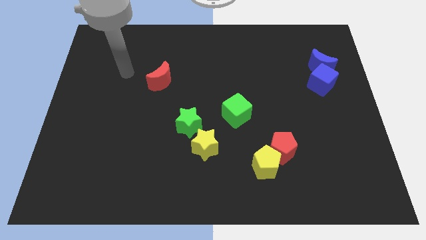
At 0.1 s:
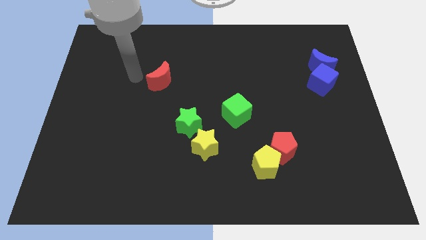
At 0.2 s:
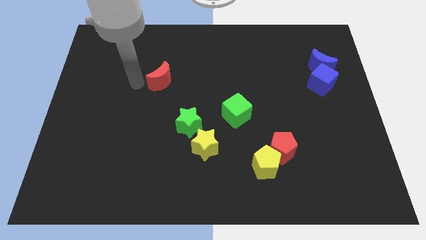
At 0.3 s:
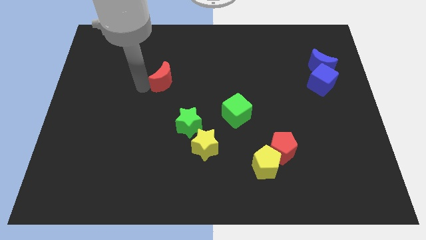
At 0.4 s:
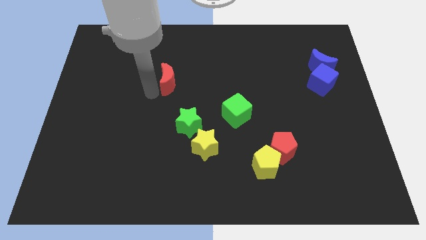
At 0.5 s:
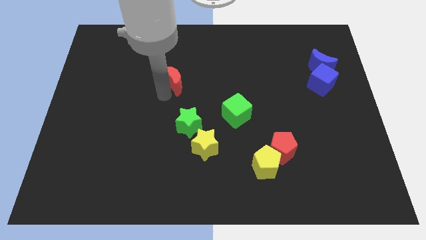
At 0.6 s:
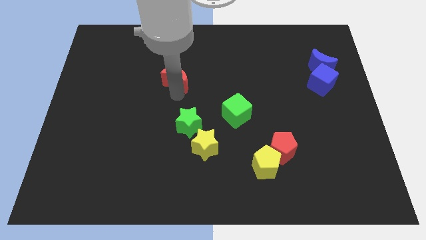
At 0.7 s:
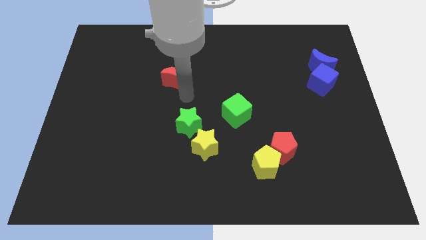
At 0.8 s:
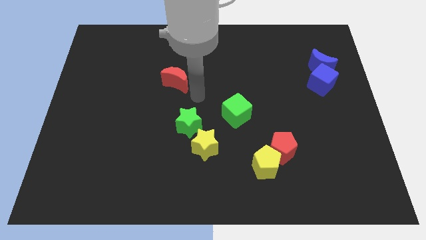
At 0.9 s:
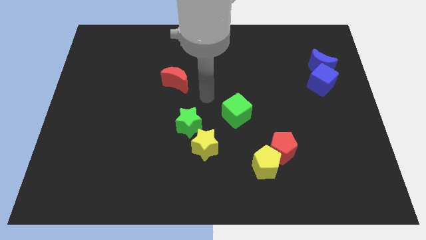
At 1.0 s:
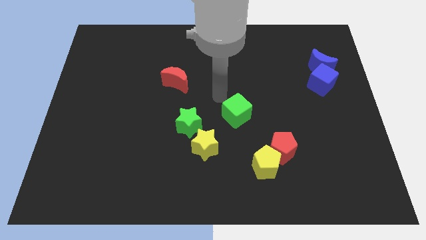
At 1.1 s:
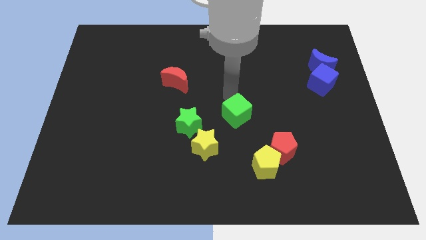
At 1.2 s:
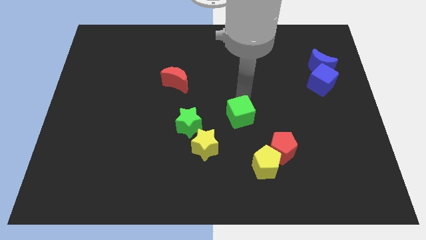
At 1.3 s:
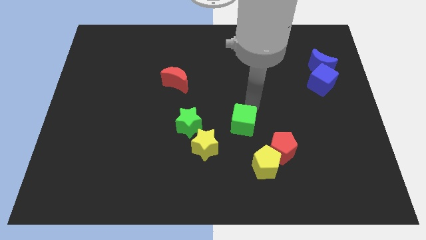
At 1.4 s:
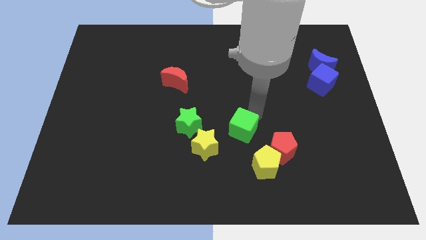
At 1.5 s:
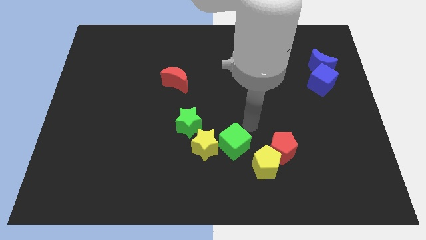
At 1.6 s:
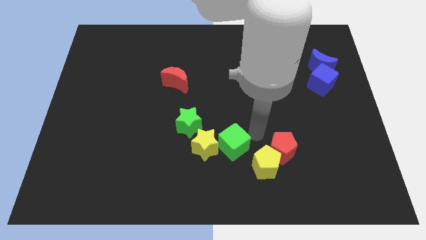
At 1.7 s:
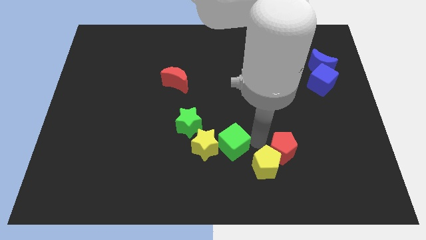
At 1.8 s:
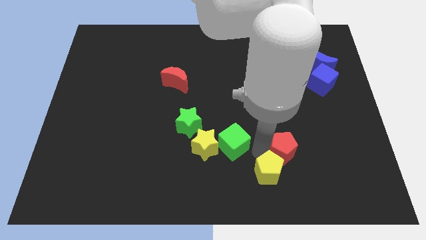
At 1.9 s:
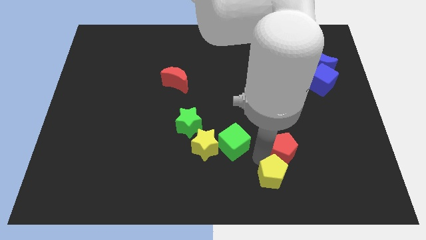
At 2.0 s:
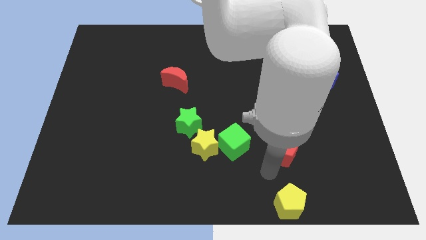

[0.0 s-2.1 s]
separate the red pentagon from the yellow pentagon

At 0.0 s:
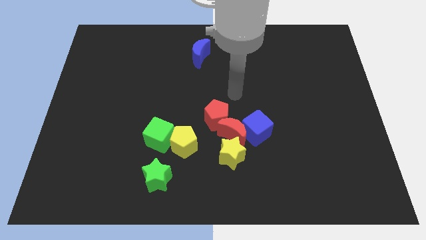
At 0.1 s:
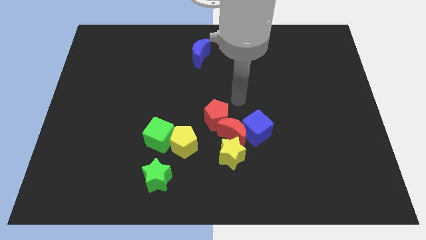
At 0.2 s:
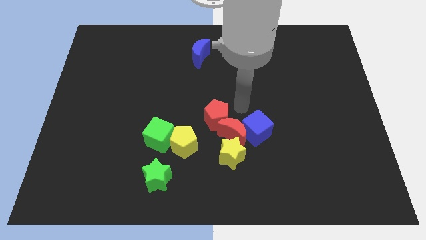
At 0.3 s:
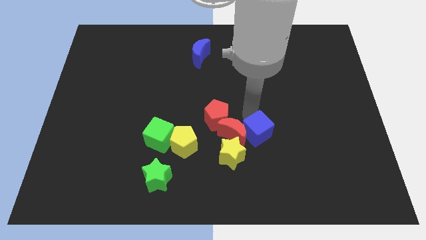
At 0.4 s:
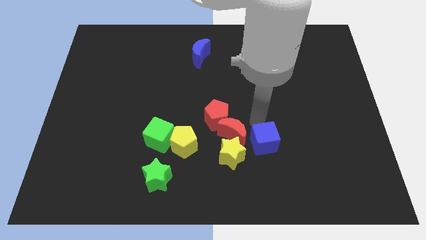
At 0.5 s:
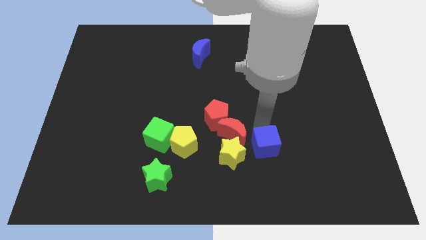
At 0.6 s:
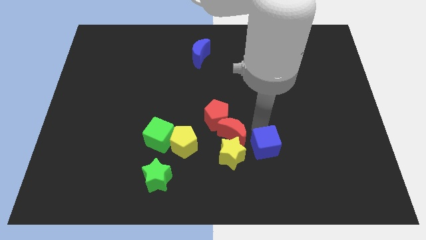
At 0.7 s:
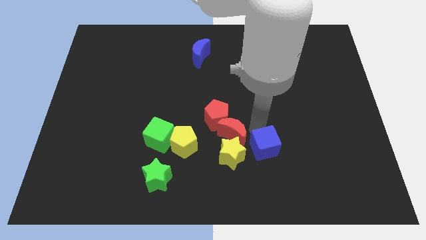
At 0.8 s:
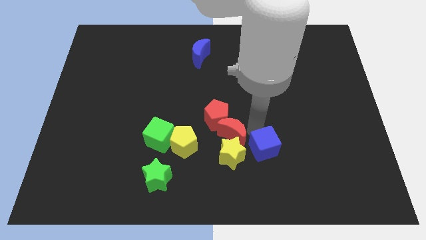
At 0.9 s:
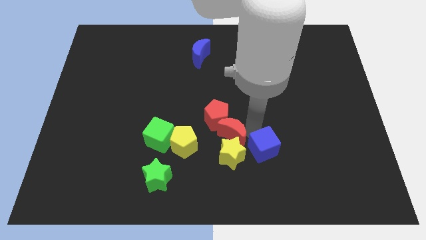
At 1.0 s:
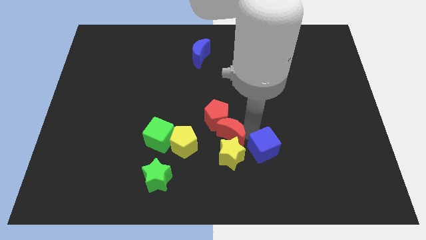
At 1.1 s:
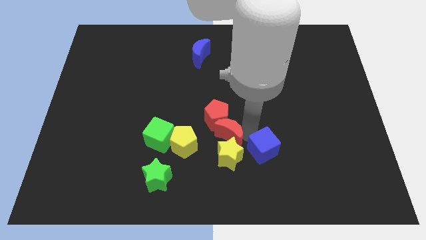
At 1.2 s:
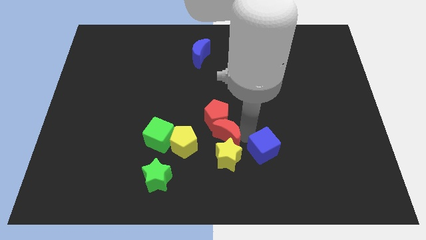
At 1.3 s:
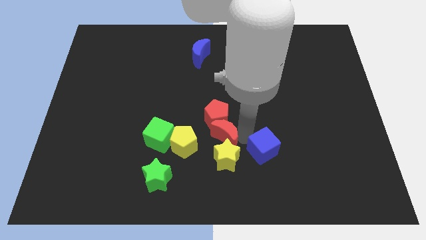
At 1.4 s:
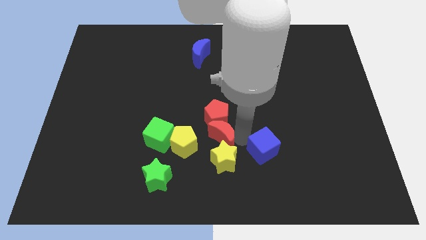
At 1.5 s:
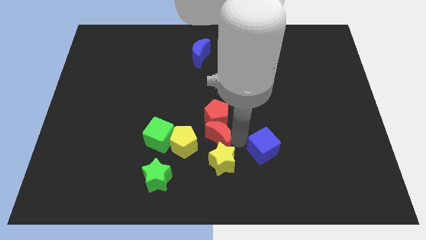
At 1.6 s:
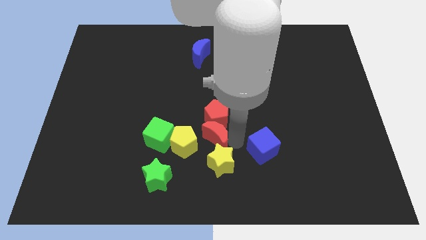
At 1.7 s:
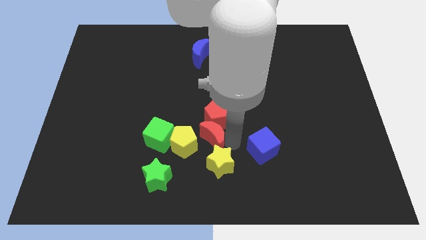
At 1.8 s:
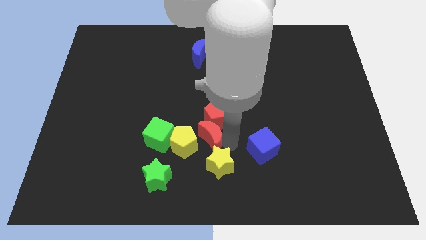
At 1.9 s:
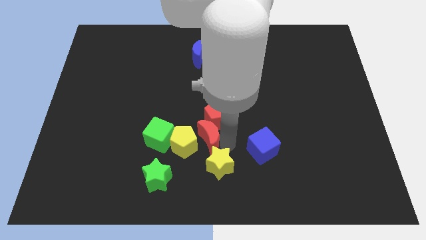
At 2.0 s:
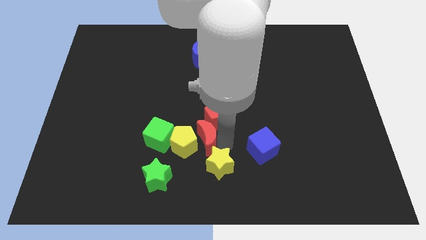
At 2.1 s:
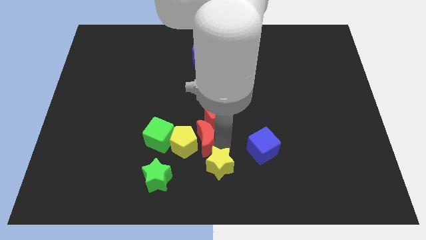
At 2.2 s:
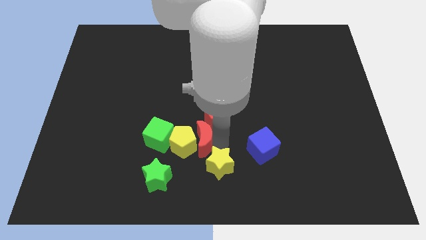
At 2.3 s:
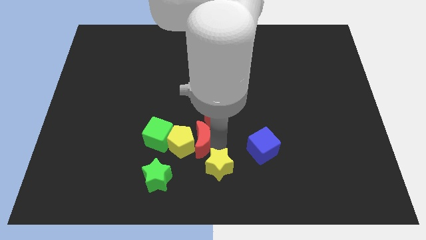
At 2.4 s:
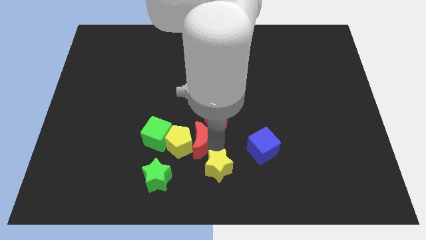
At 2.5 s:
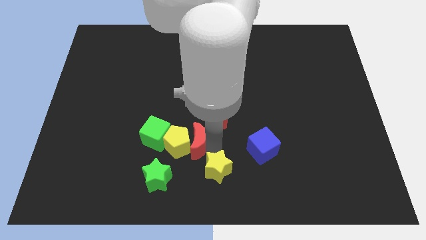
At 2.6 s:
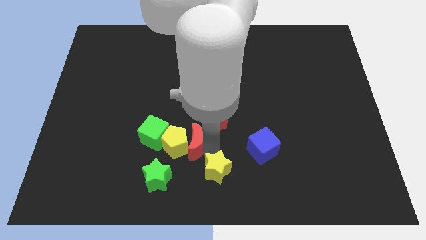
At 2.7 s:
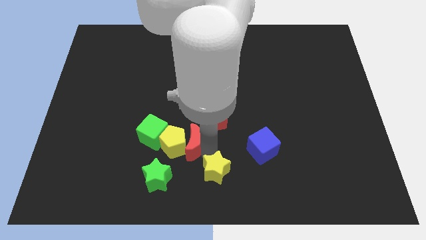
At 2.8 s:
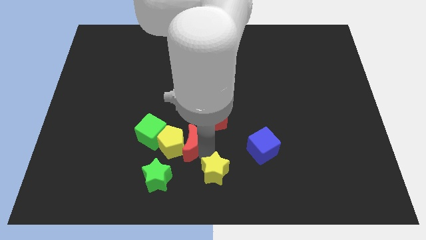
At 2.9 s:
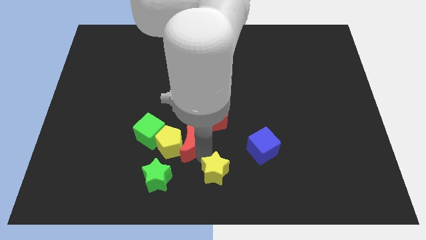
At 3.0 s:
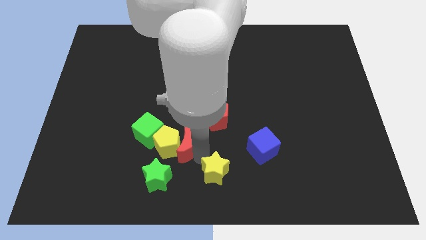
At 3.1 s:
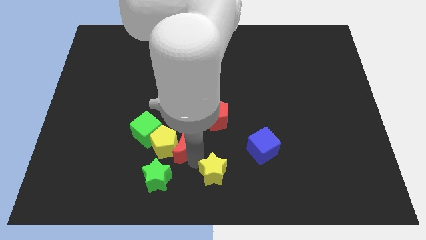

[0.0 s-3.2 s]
move the red moon away from the clump

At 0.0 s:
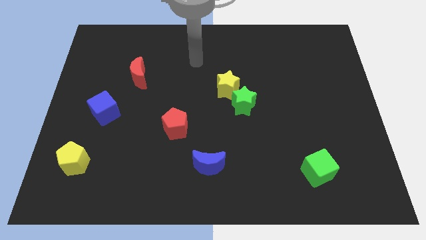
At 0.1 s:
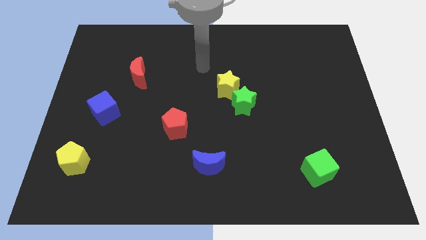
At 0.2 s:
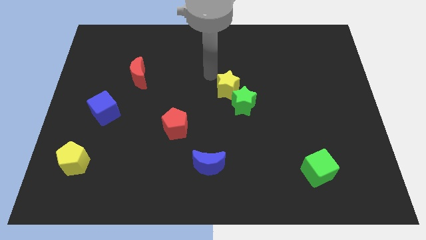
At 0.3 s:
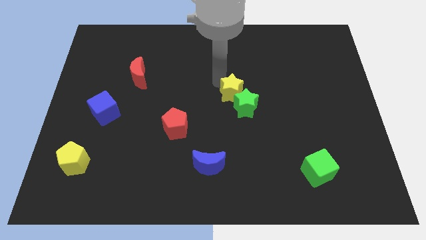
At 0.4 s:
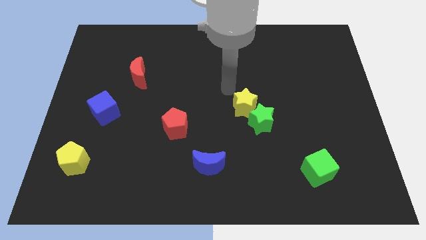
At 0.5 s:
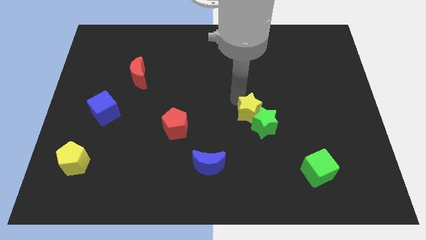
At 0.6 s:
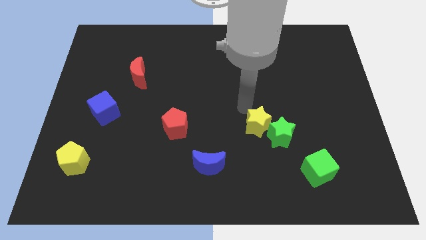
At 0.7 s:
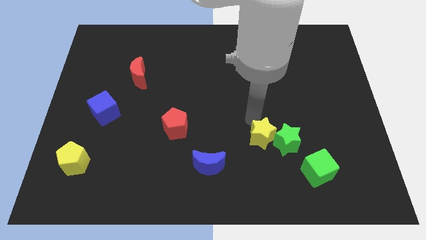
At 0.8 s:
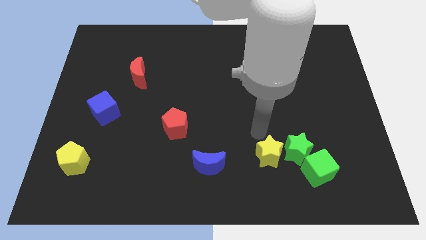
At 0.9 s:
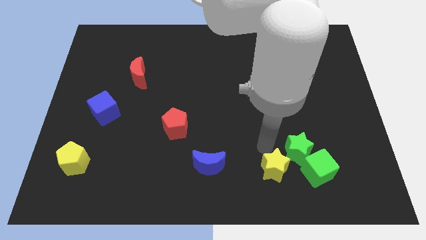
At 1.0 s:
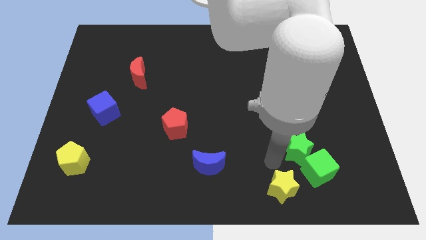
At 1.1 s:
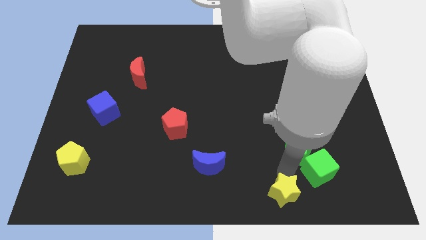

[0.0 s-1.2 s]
pull the green star apart from the yellow star

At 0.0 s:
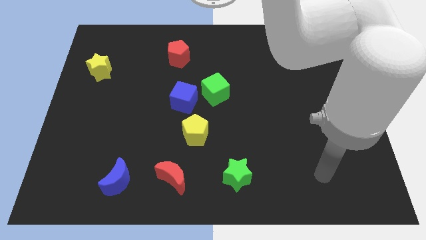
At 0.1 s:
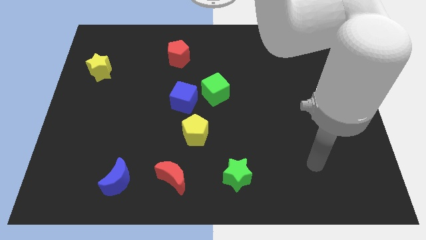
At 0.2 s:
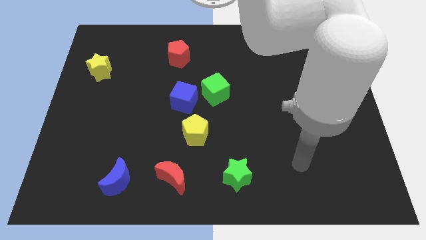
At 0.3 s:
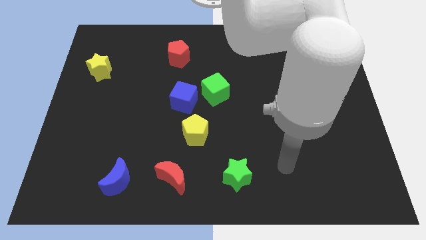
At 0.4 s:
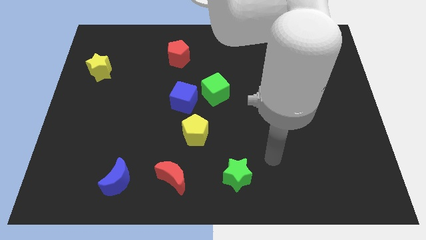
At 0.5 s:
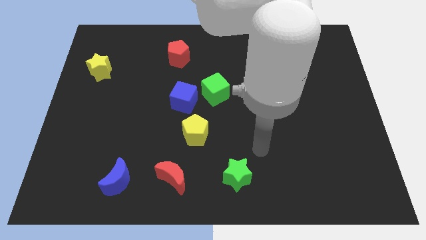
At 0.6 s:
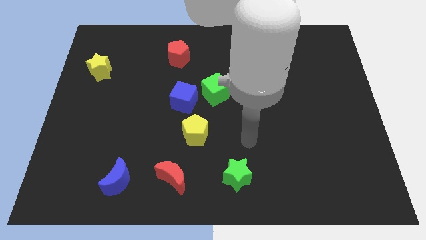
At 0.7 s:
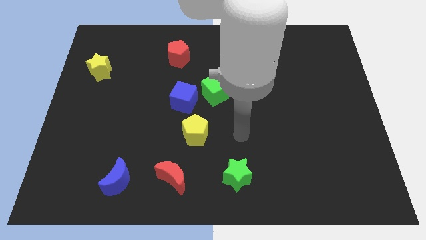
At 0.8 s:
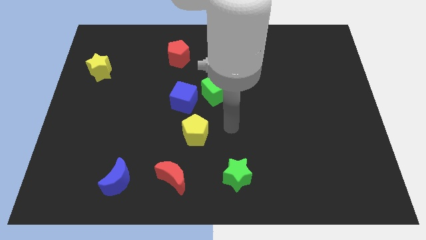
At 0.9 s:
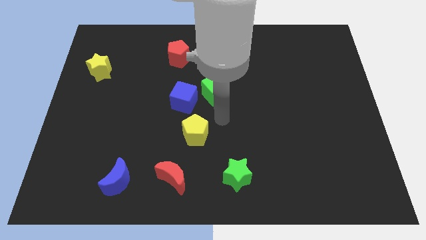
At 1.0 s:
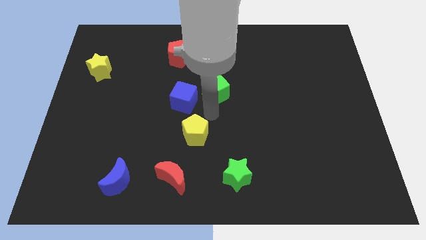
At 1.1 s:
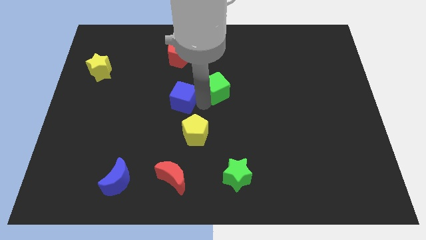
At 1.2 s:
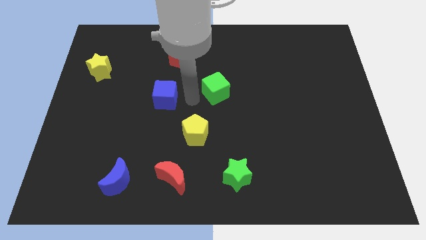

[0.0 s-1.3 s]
separate the green cube from the blue cube

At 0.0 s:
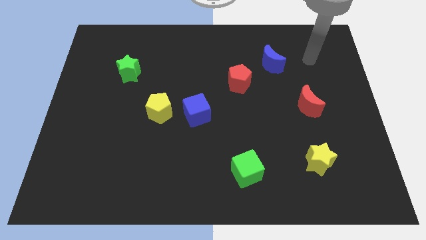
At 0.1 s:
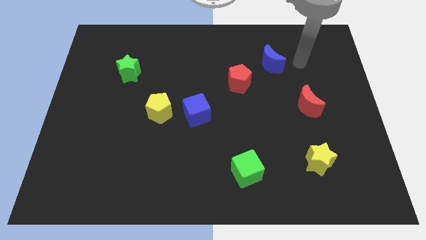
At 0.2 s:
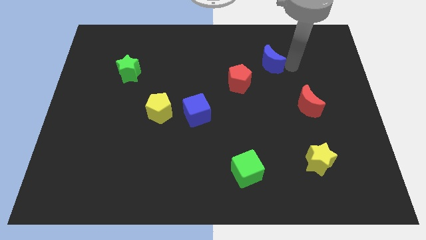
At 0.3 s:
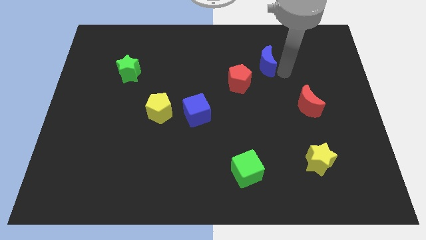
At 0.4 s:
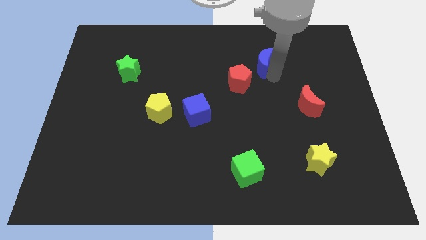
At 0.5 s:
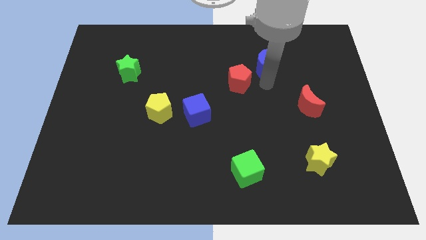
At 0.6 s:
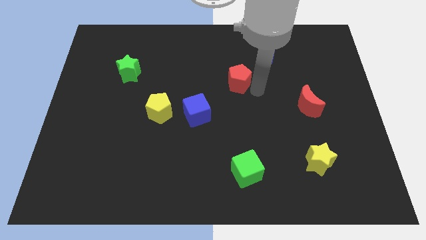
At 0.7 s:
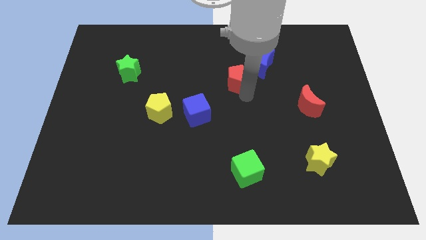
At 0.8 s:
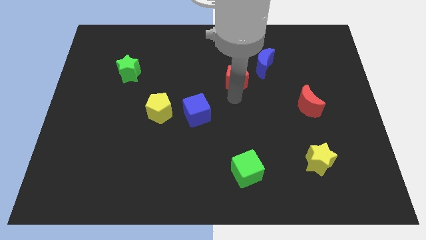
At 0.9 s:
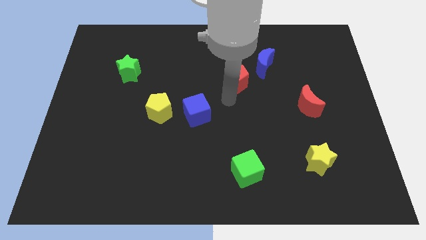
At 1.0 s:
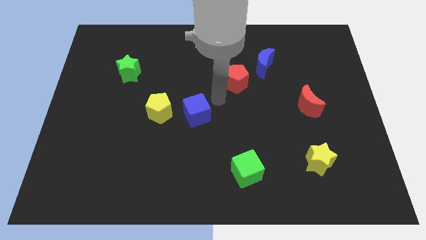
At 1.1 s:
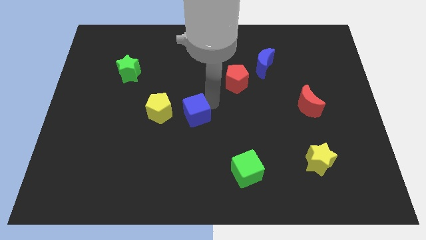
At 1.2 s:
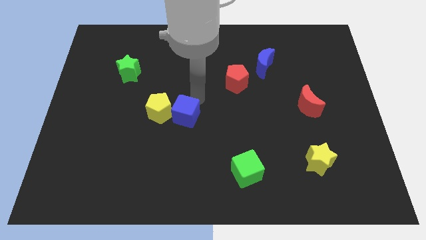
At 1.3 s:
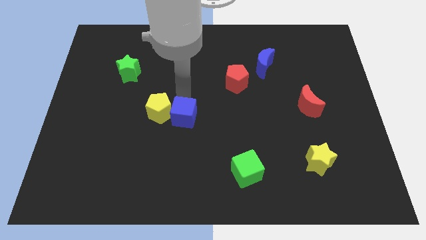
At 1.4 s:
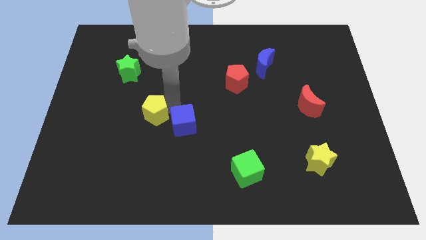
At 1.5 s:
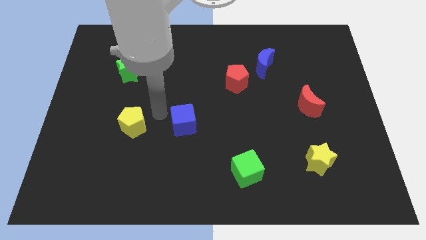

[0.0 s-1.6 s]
pull the blue cube apart from the yellow pentagon
